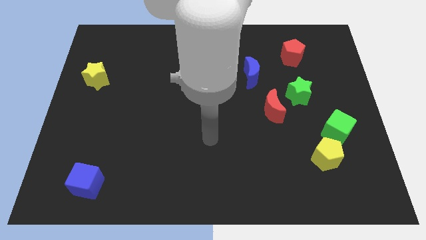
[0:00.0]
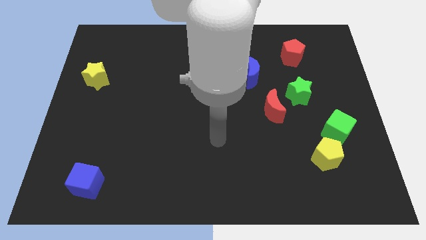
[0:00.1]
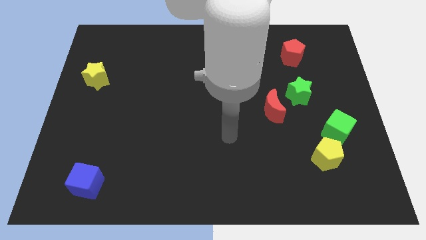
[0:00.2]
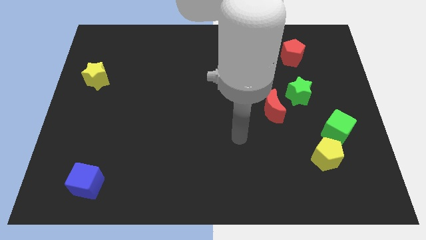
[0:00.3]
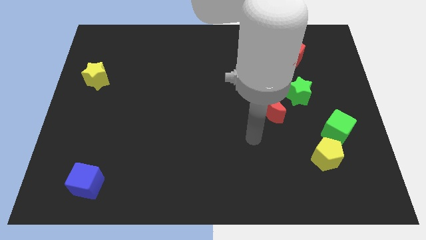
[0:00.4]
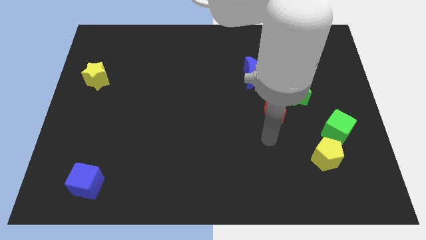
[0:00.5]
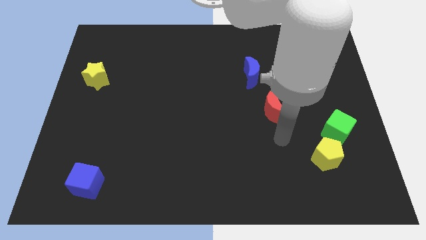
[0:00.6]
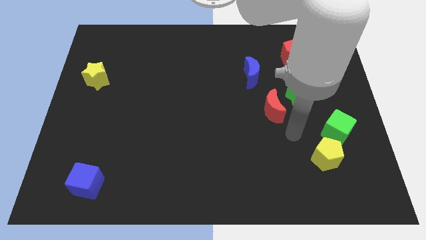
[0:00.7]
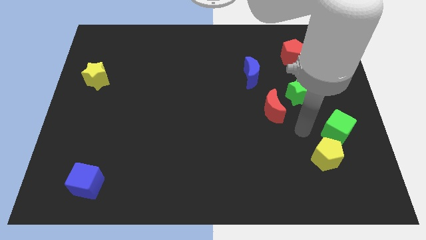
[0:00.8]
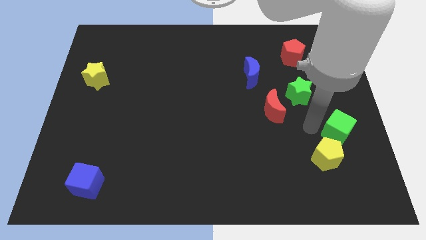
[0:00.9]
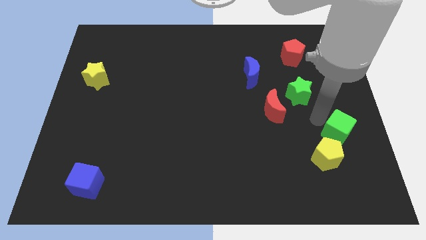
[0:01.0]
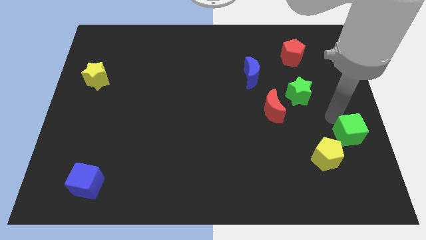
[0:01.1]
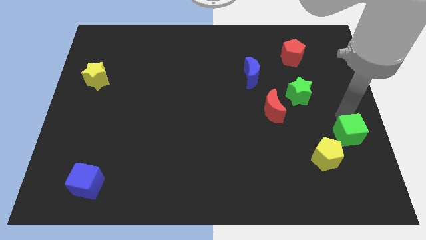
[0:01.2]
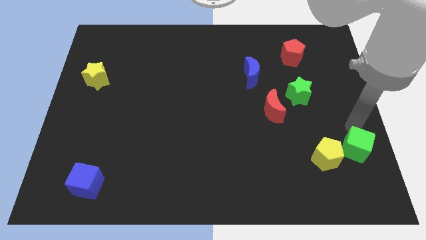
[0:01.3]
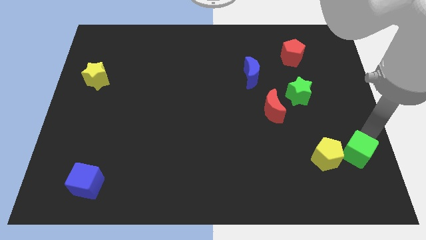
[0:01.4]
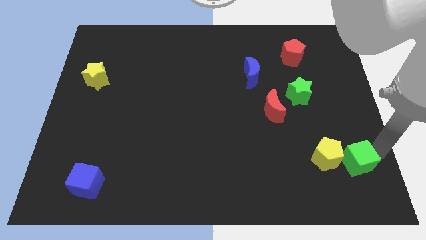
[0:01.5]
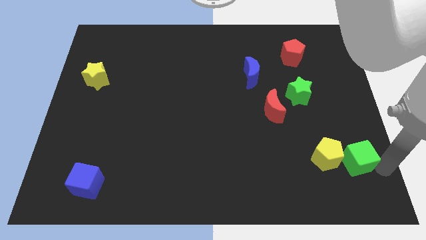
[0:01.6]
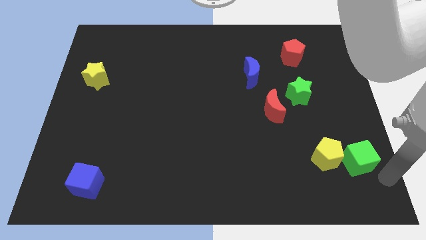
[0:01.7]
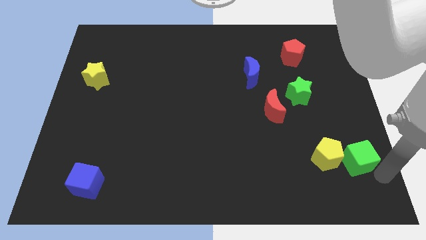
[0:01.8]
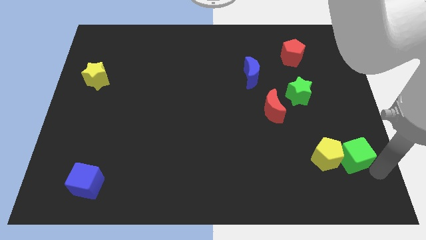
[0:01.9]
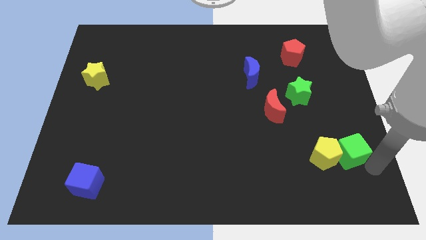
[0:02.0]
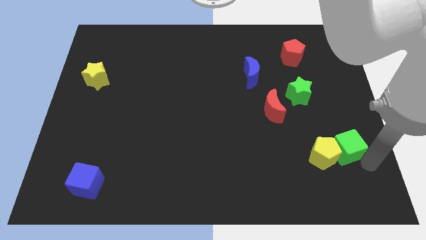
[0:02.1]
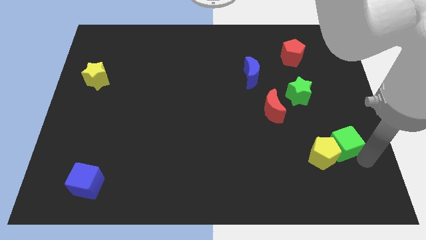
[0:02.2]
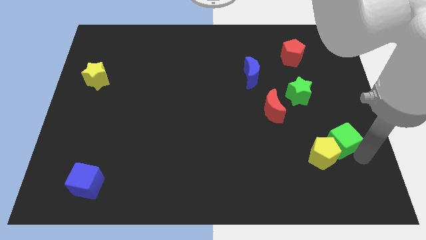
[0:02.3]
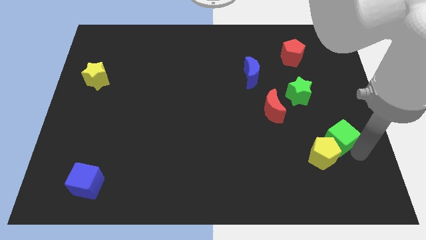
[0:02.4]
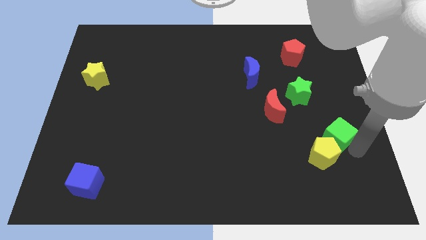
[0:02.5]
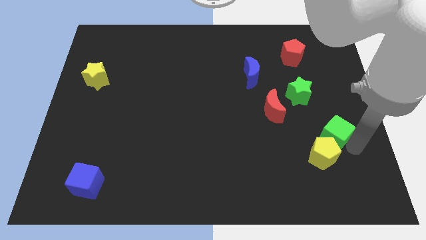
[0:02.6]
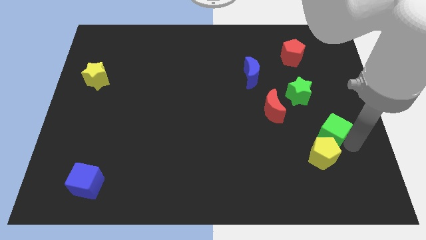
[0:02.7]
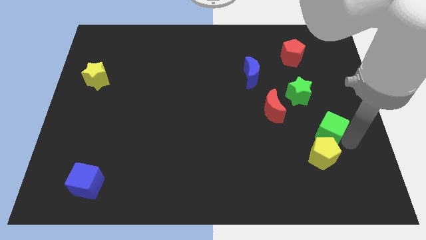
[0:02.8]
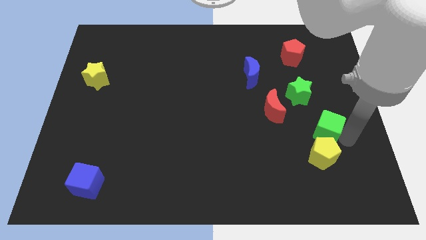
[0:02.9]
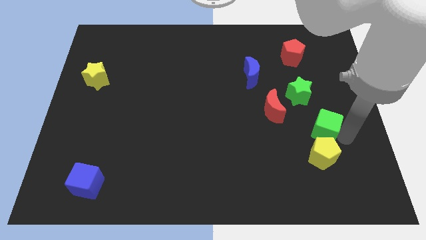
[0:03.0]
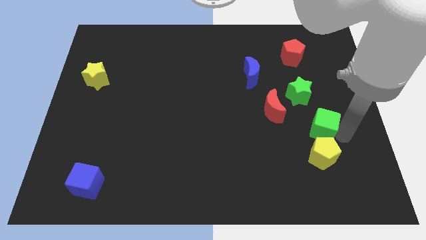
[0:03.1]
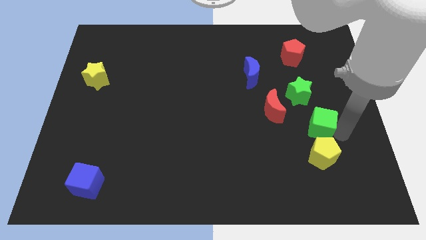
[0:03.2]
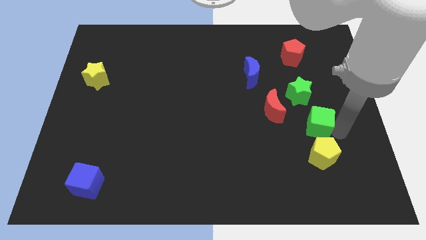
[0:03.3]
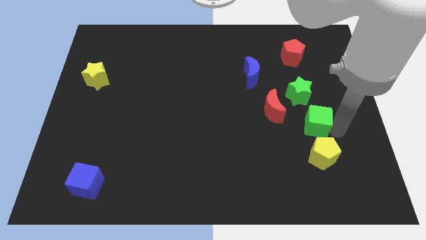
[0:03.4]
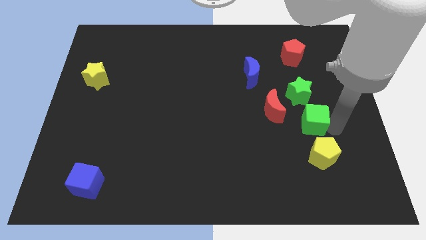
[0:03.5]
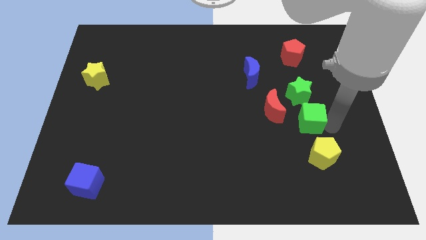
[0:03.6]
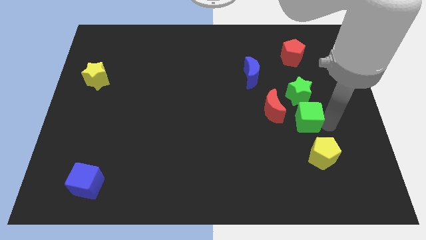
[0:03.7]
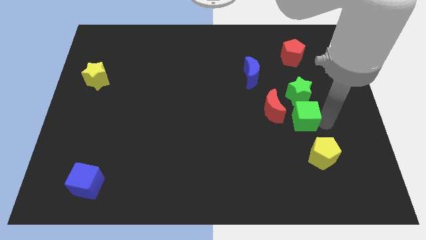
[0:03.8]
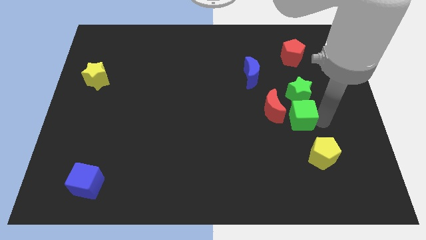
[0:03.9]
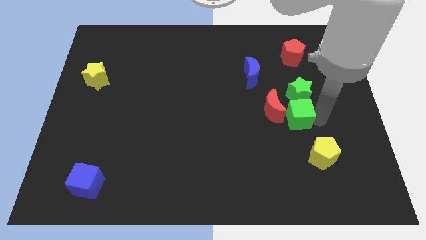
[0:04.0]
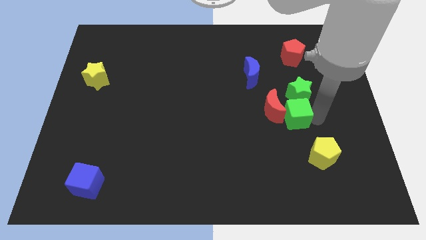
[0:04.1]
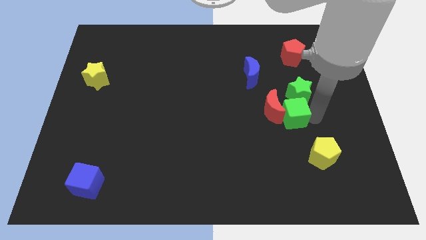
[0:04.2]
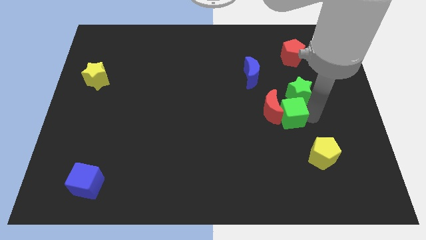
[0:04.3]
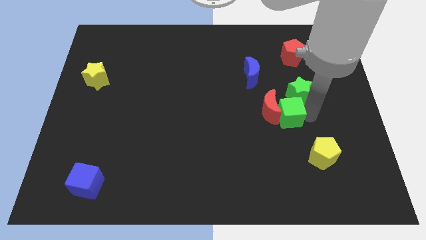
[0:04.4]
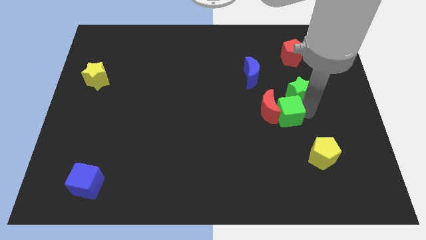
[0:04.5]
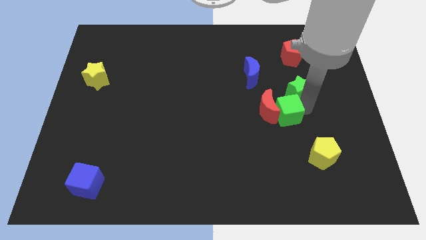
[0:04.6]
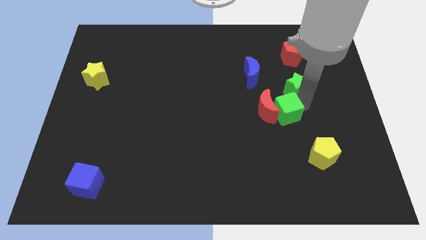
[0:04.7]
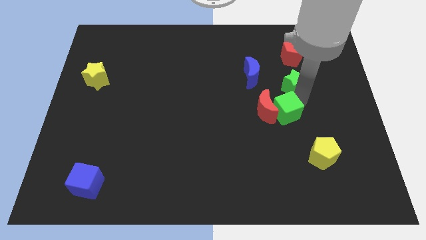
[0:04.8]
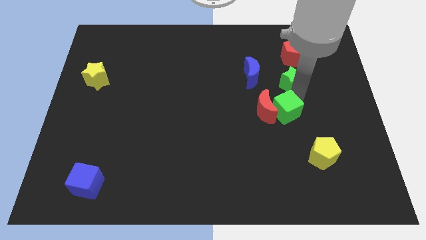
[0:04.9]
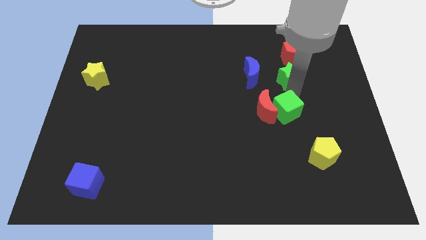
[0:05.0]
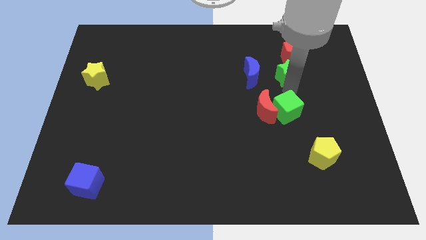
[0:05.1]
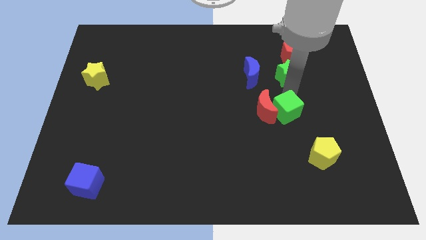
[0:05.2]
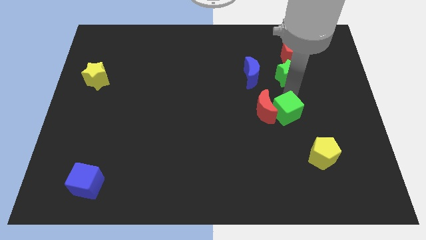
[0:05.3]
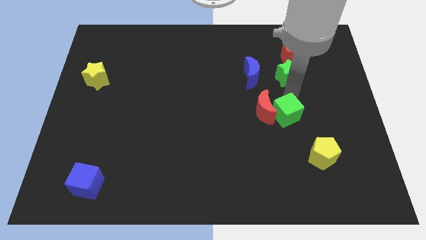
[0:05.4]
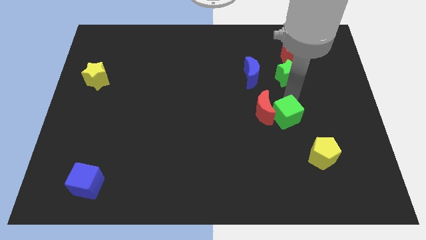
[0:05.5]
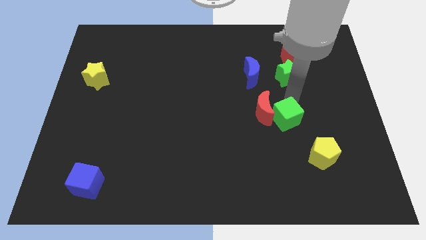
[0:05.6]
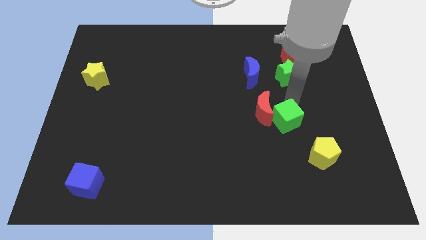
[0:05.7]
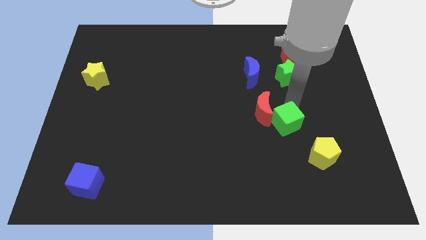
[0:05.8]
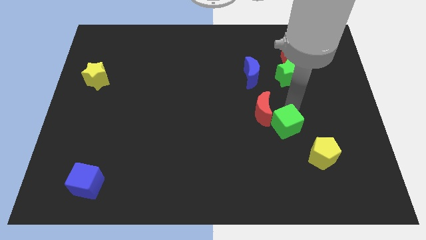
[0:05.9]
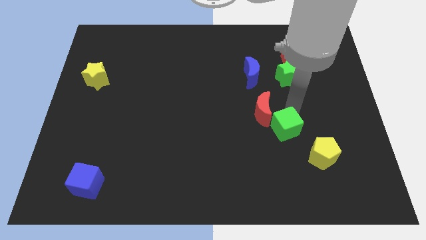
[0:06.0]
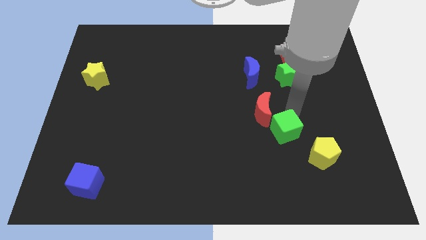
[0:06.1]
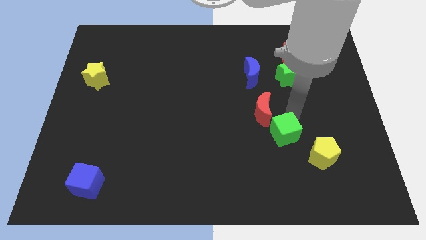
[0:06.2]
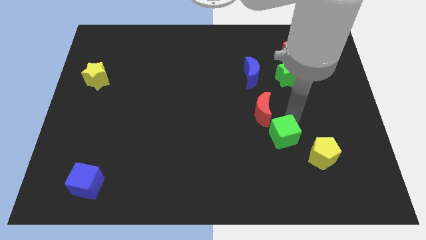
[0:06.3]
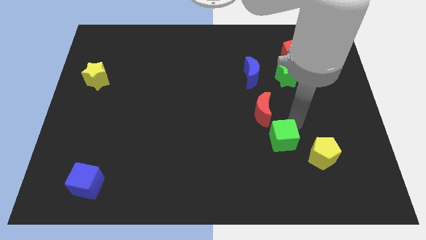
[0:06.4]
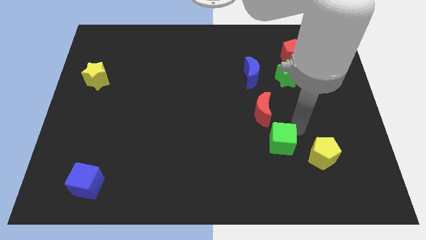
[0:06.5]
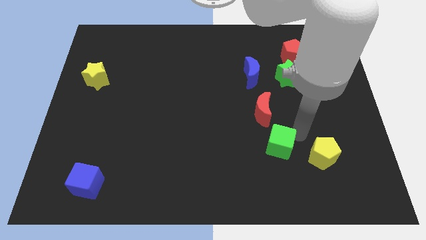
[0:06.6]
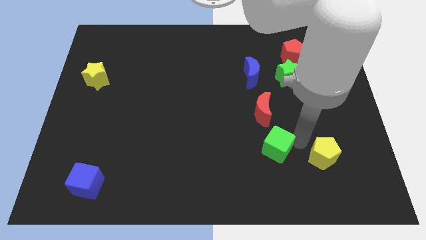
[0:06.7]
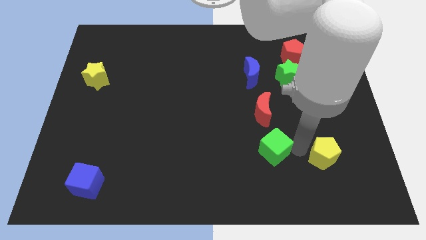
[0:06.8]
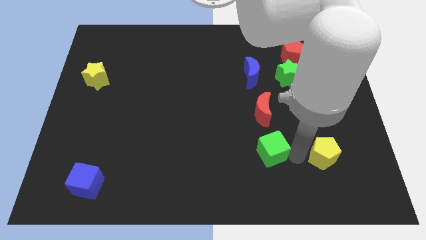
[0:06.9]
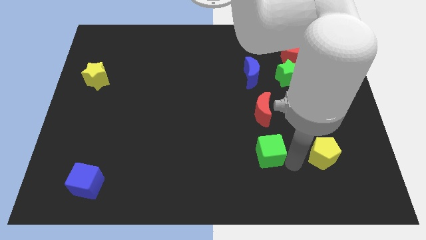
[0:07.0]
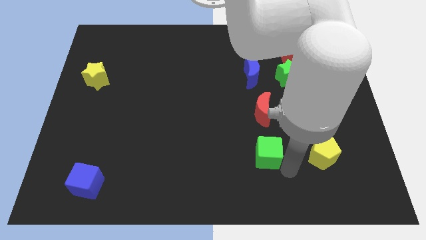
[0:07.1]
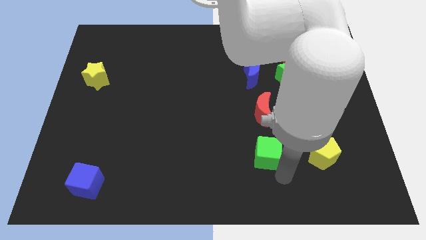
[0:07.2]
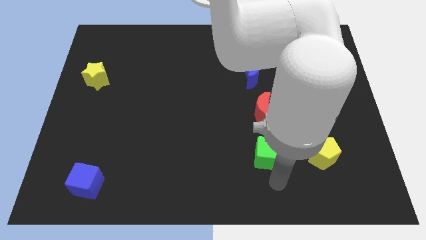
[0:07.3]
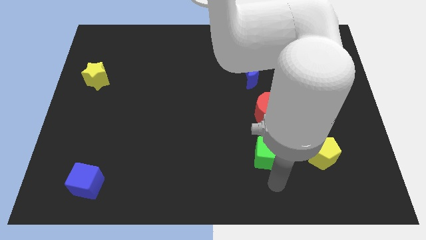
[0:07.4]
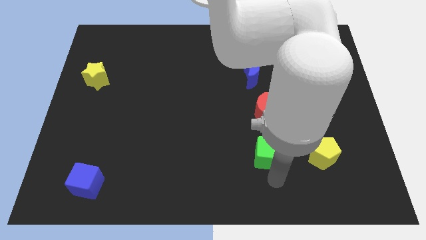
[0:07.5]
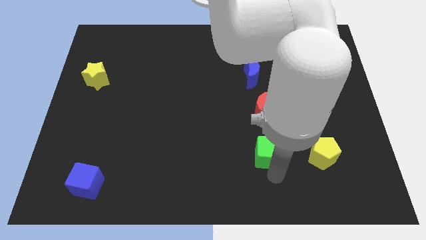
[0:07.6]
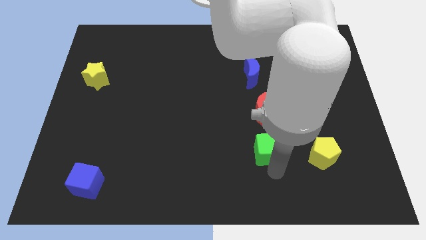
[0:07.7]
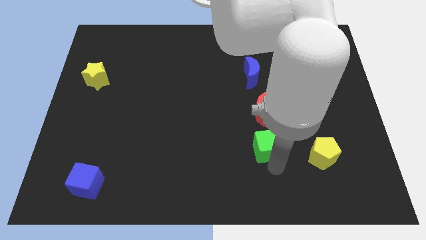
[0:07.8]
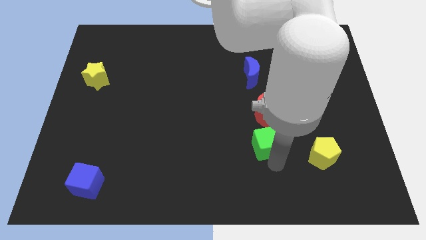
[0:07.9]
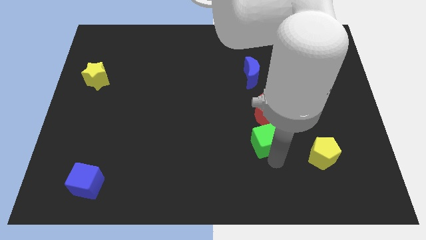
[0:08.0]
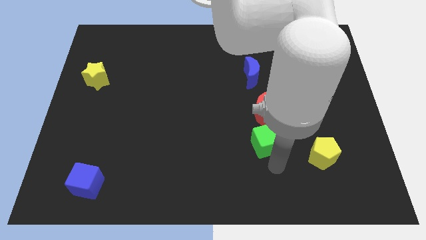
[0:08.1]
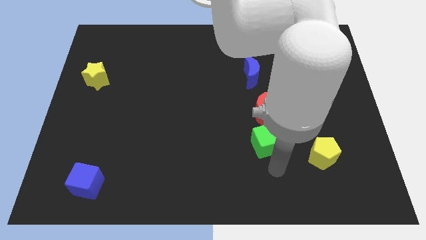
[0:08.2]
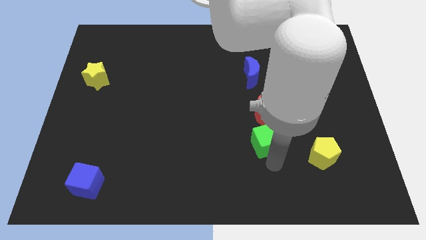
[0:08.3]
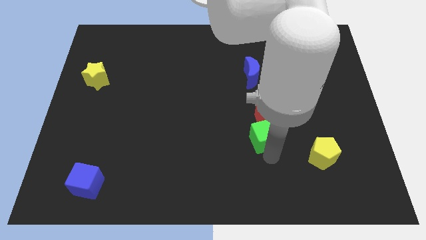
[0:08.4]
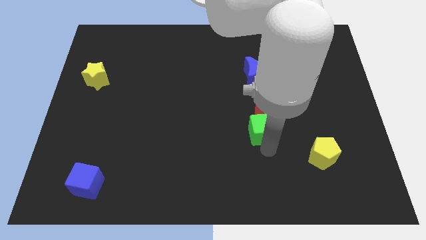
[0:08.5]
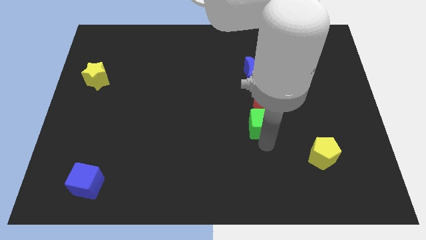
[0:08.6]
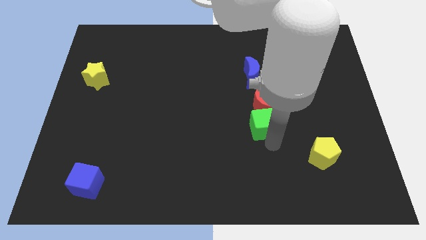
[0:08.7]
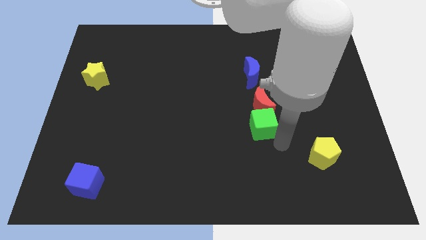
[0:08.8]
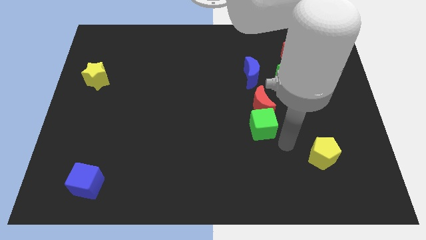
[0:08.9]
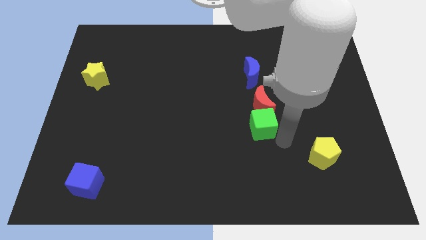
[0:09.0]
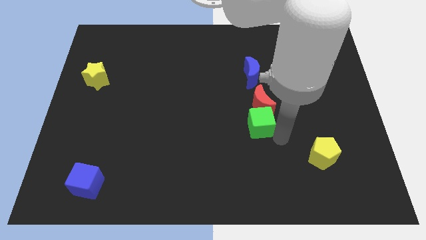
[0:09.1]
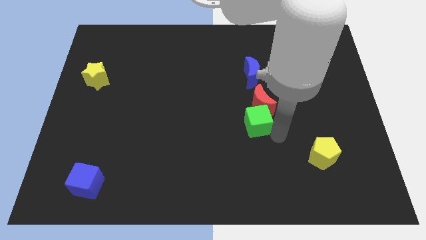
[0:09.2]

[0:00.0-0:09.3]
slide the green cube to the center of the board
